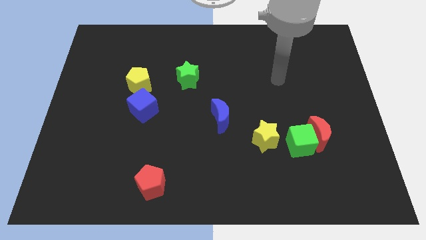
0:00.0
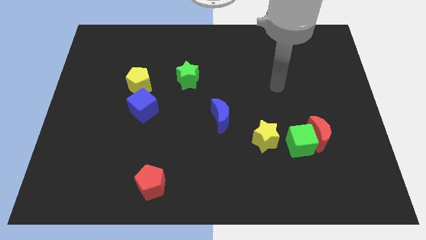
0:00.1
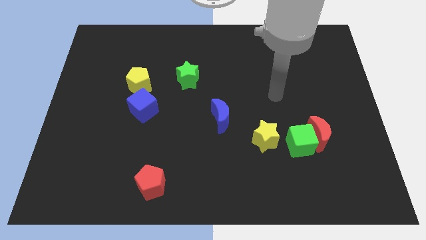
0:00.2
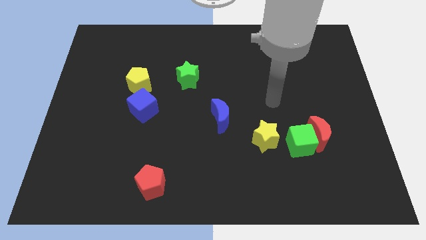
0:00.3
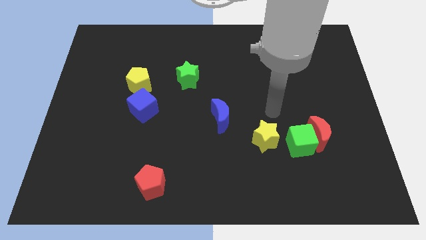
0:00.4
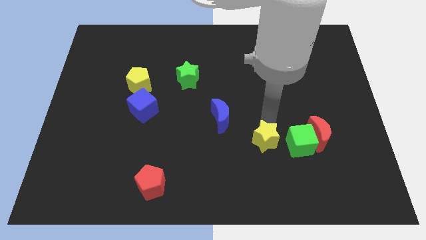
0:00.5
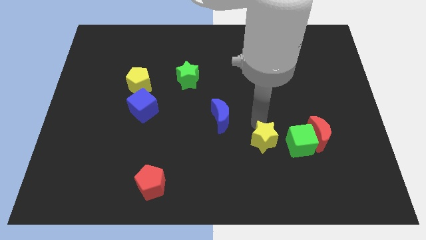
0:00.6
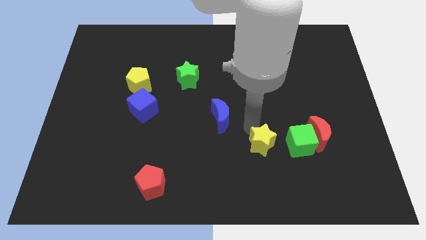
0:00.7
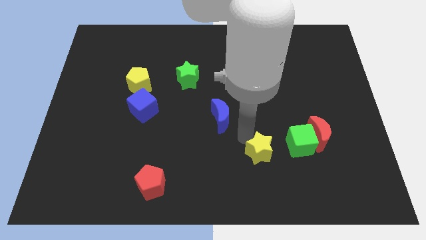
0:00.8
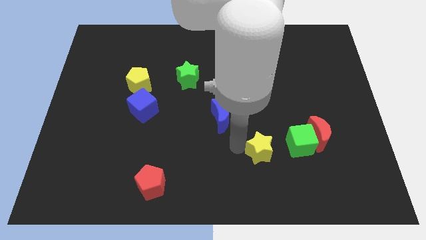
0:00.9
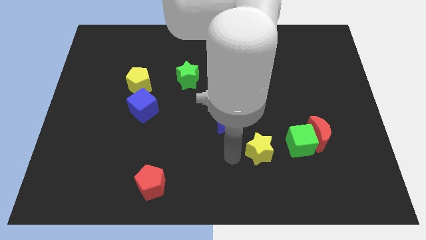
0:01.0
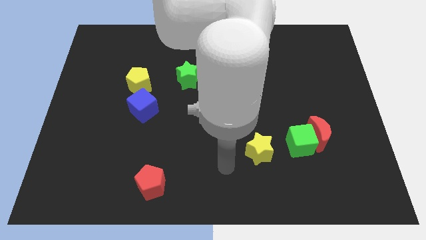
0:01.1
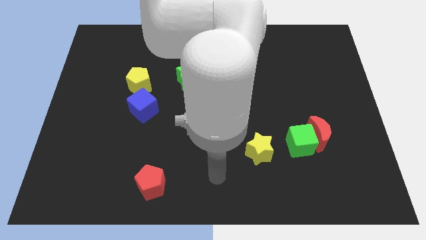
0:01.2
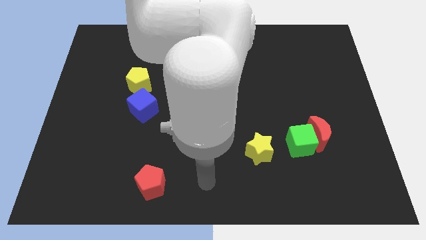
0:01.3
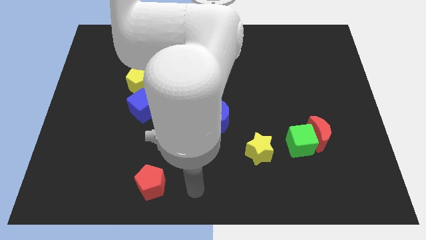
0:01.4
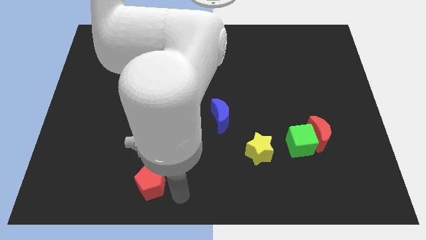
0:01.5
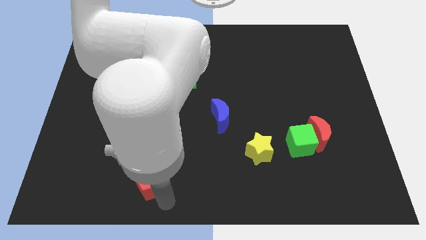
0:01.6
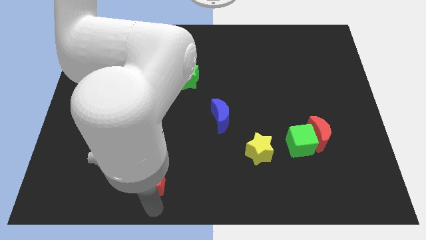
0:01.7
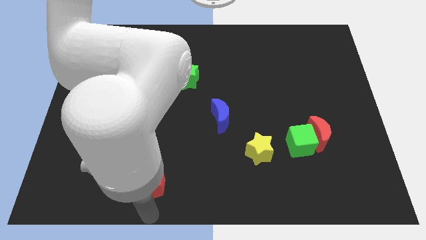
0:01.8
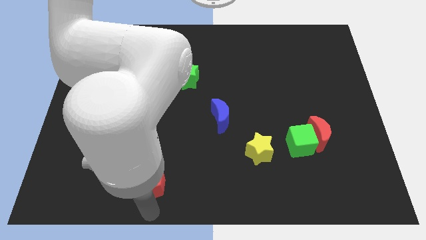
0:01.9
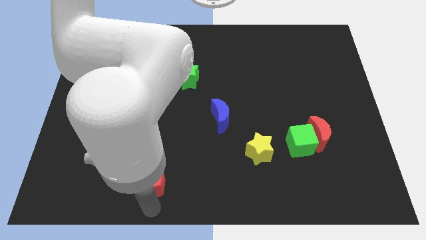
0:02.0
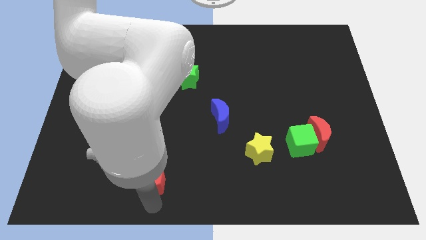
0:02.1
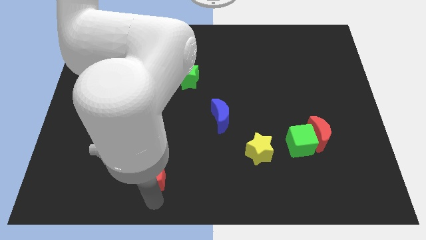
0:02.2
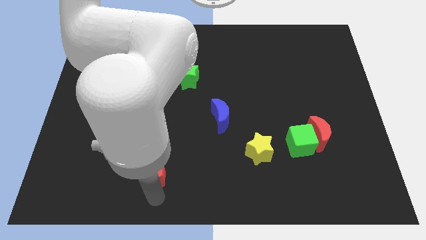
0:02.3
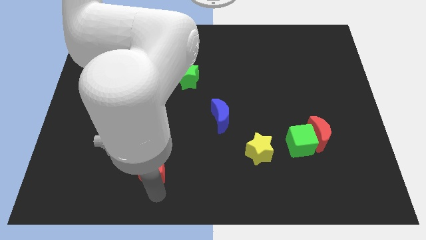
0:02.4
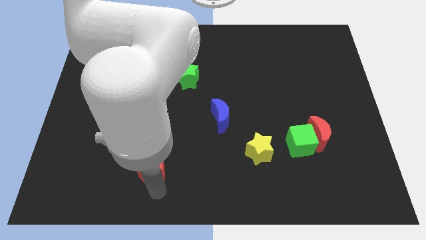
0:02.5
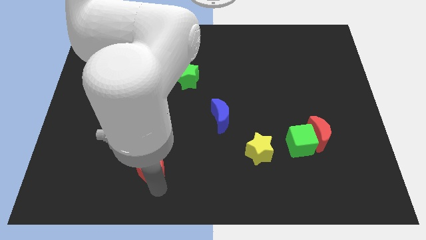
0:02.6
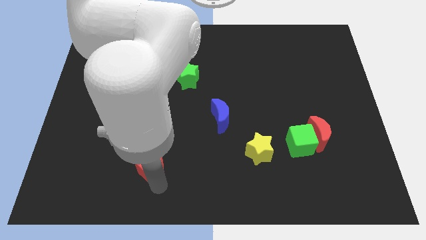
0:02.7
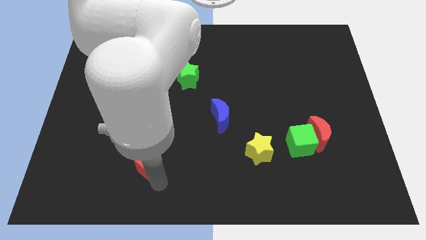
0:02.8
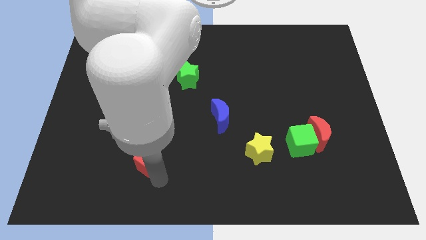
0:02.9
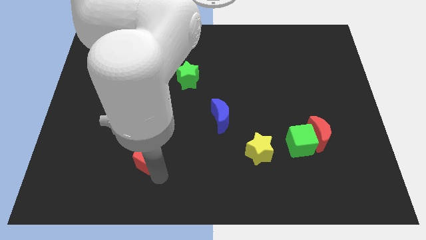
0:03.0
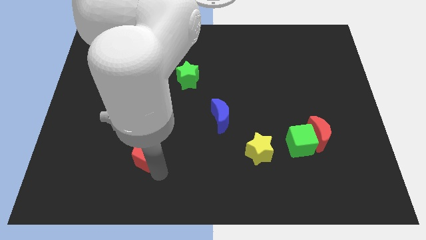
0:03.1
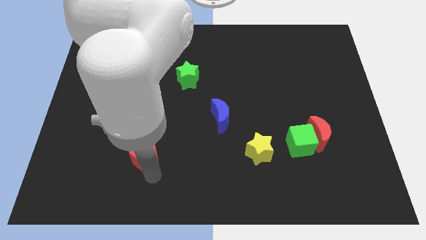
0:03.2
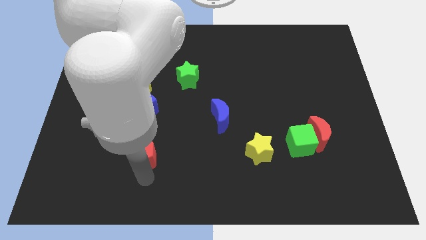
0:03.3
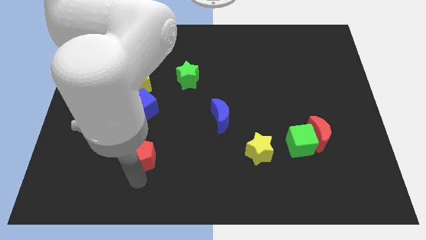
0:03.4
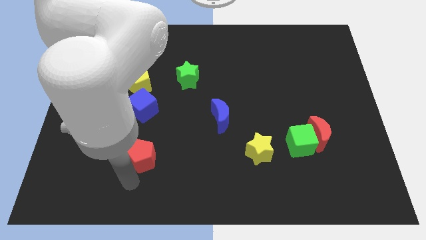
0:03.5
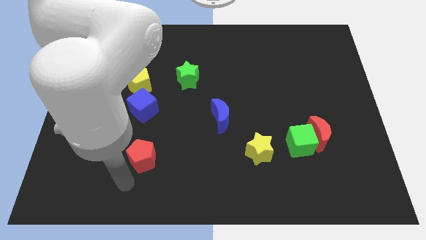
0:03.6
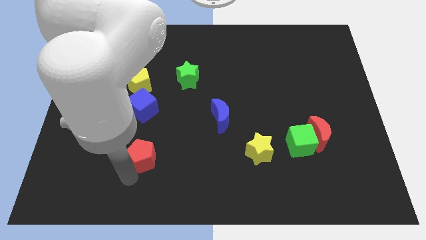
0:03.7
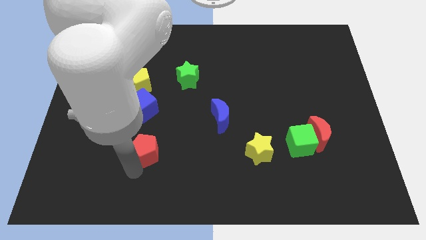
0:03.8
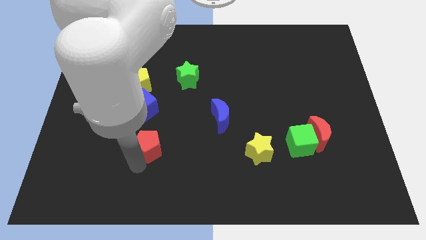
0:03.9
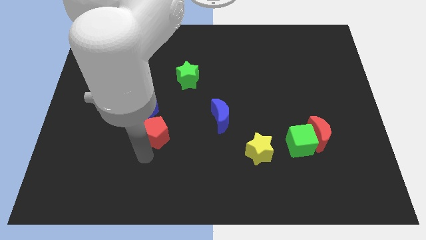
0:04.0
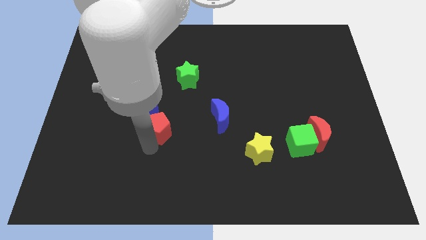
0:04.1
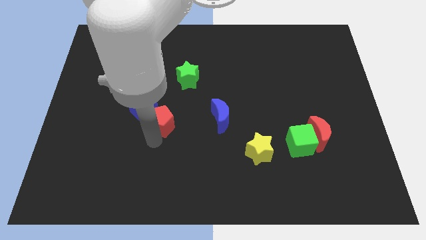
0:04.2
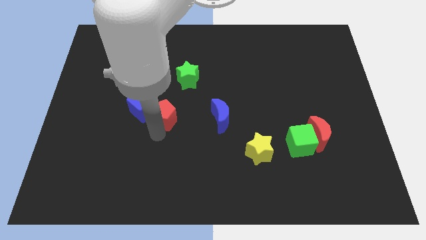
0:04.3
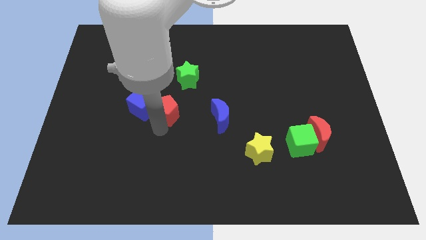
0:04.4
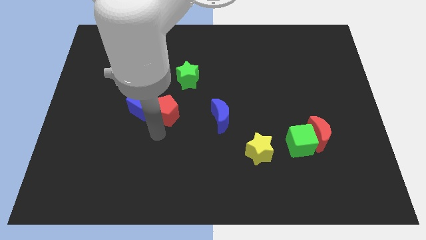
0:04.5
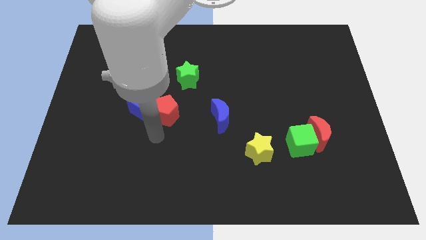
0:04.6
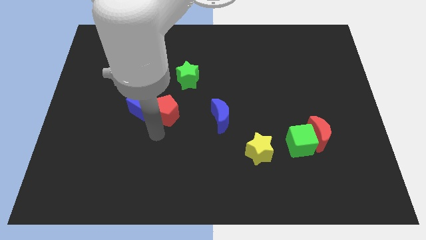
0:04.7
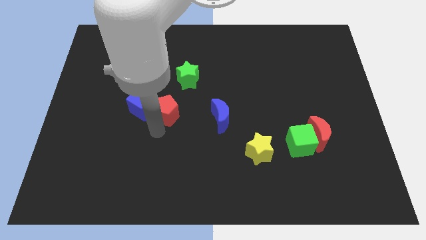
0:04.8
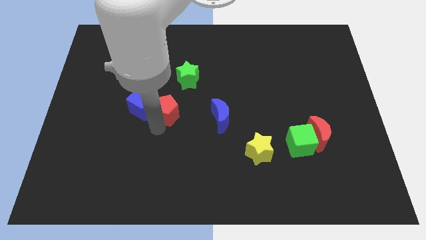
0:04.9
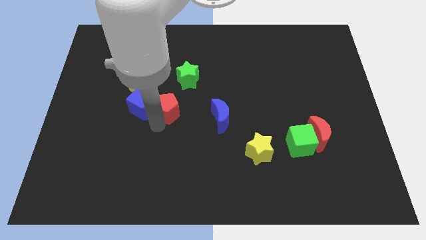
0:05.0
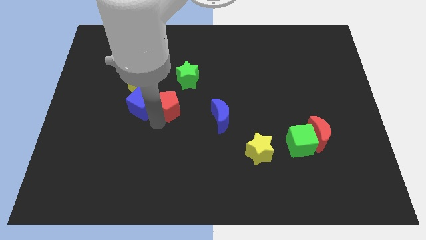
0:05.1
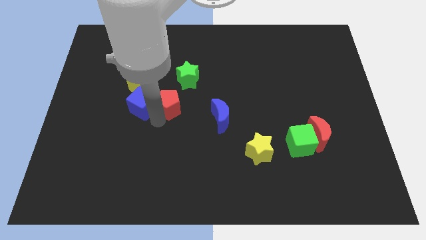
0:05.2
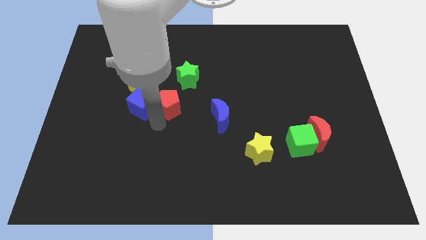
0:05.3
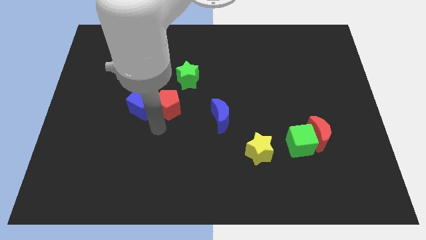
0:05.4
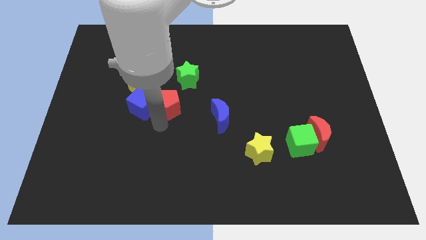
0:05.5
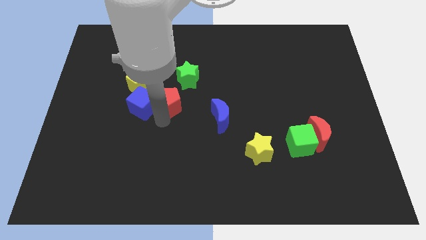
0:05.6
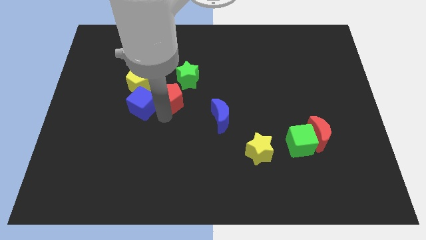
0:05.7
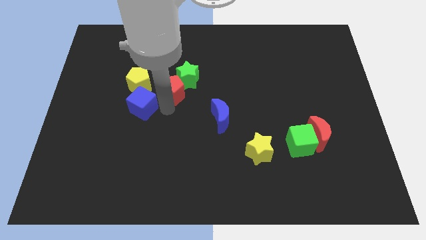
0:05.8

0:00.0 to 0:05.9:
put the red pentagon next to the green star

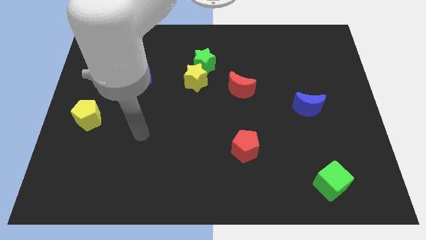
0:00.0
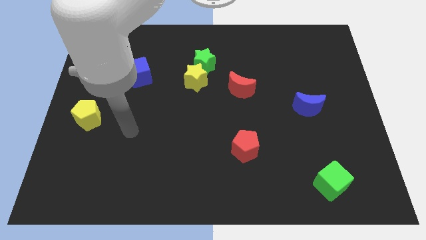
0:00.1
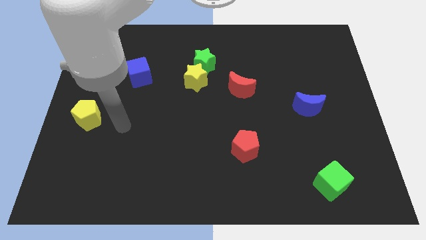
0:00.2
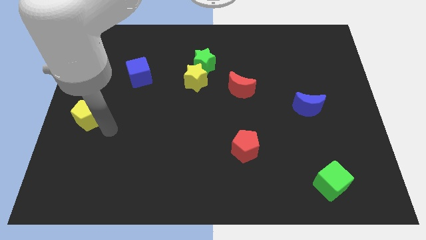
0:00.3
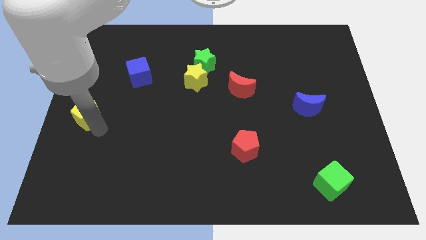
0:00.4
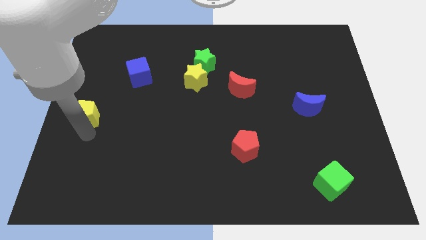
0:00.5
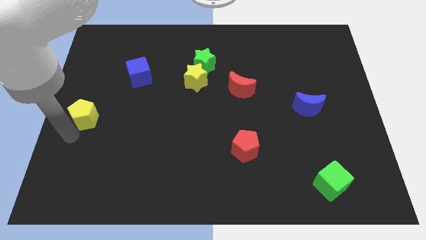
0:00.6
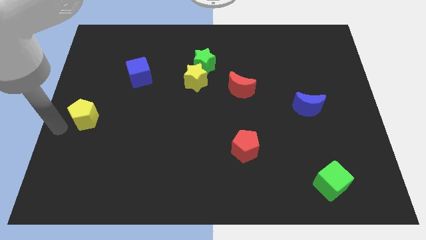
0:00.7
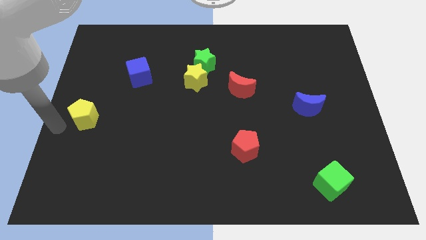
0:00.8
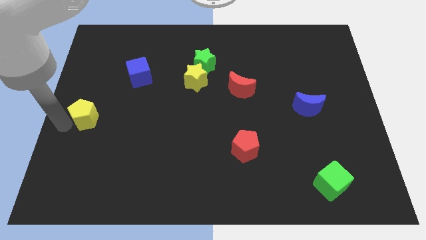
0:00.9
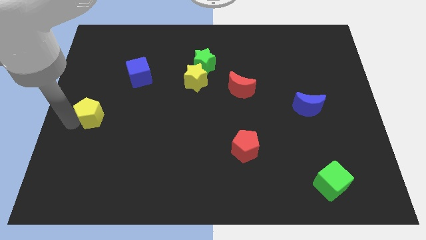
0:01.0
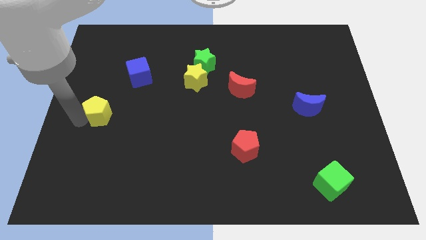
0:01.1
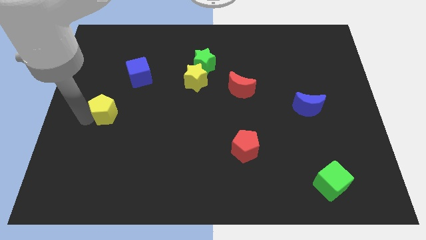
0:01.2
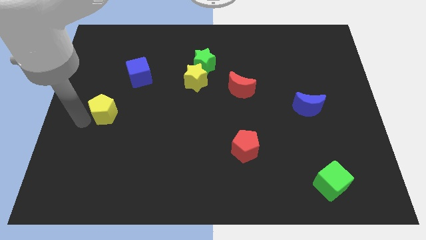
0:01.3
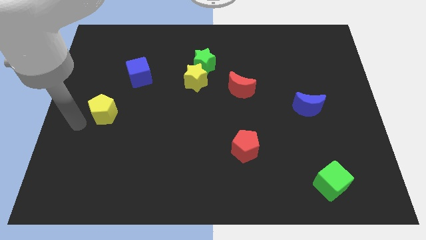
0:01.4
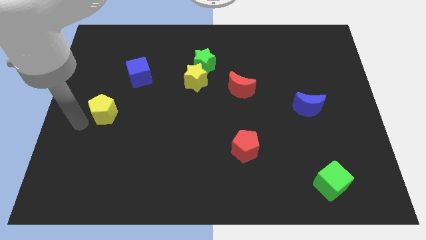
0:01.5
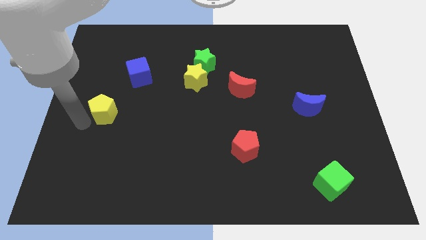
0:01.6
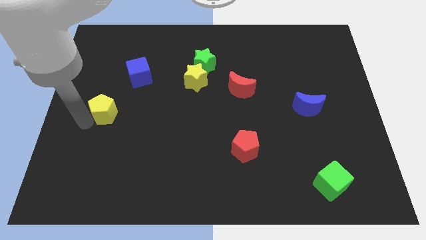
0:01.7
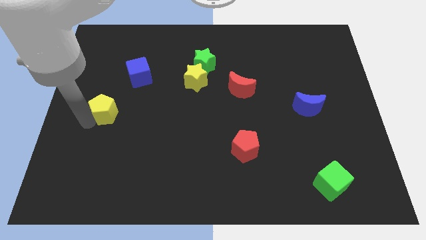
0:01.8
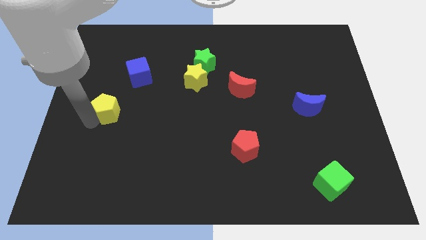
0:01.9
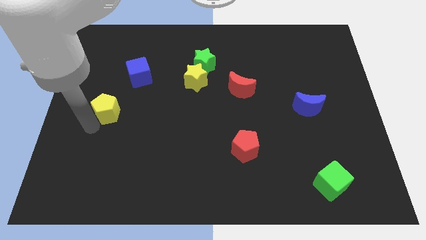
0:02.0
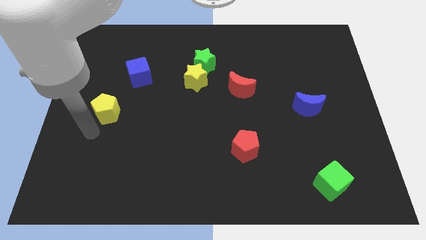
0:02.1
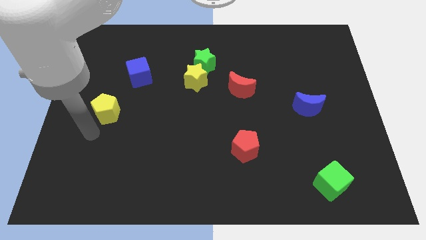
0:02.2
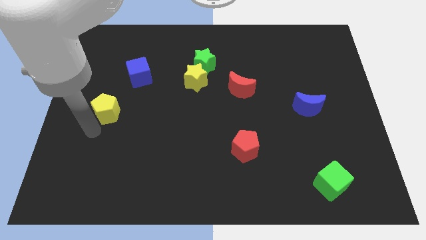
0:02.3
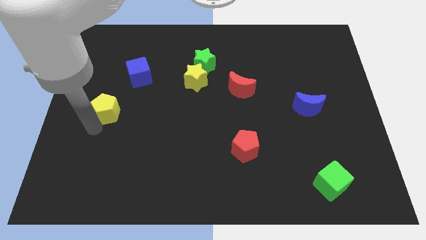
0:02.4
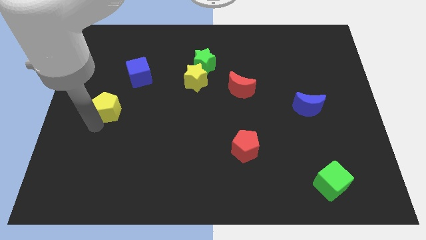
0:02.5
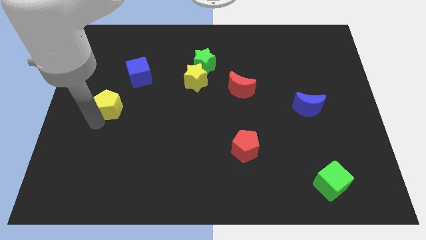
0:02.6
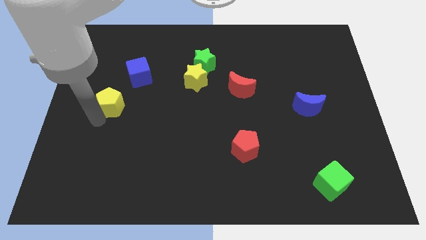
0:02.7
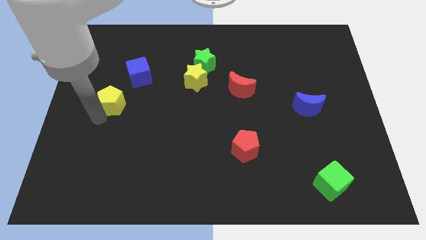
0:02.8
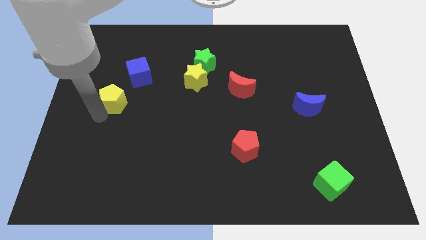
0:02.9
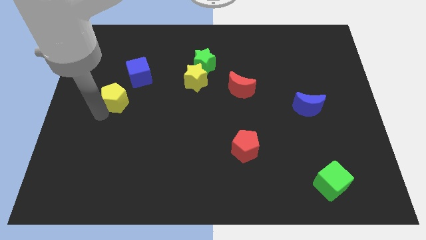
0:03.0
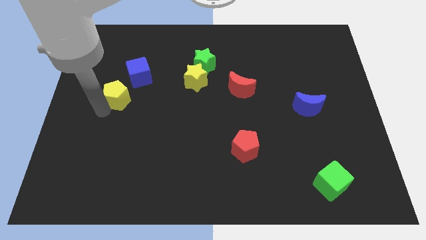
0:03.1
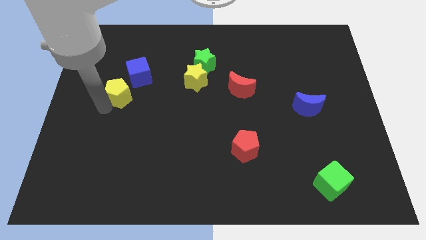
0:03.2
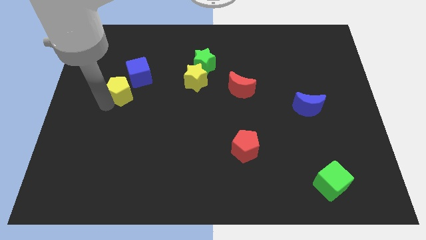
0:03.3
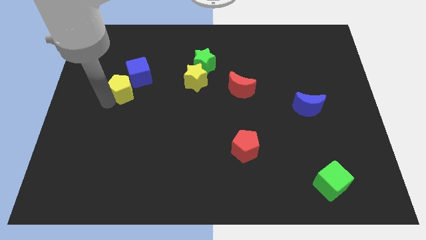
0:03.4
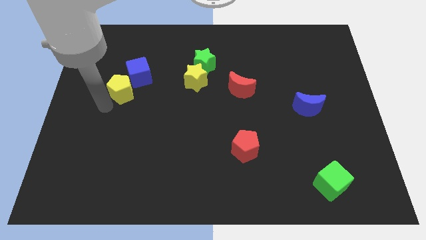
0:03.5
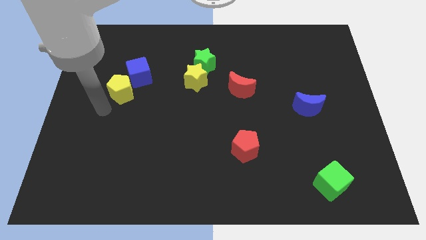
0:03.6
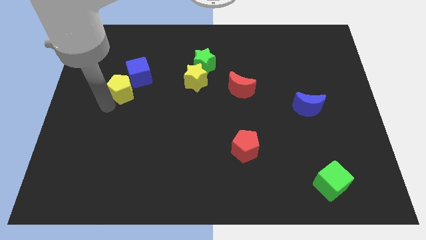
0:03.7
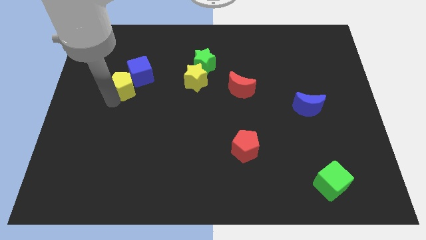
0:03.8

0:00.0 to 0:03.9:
put the yellow pentagon next to the blue cube
